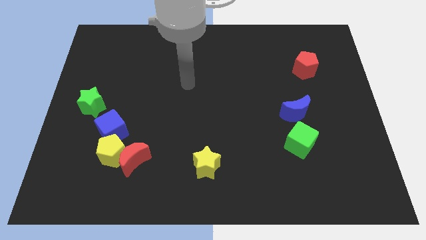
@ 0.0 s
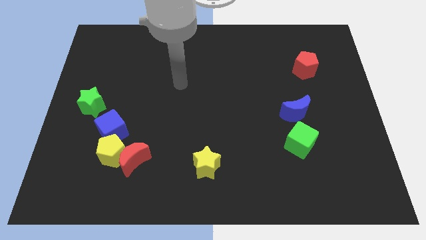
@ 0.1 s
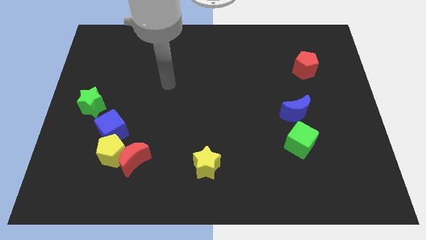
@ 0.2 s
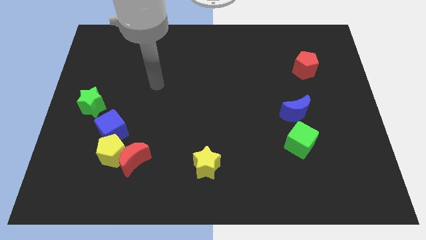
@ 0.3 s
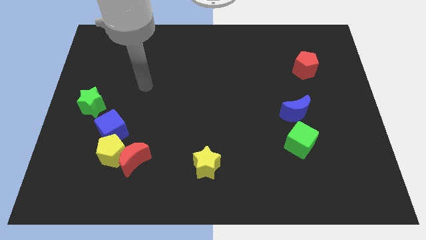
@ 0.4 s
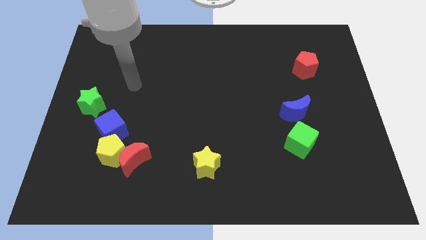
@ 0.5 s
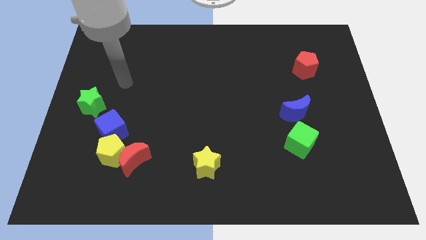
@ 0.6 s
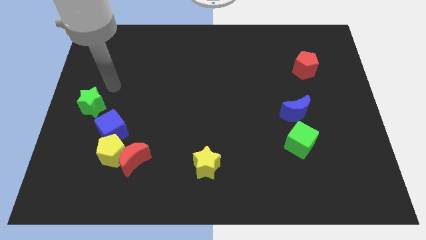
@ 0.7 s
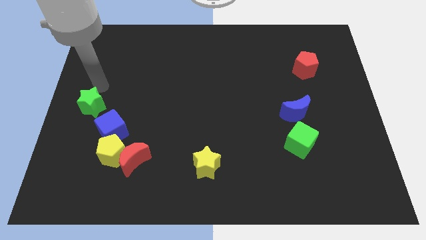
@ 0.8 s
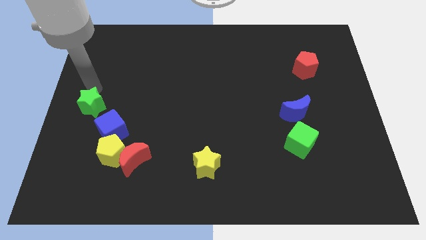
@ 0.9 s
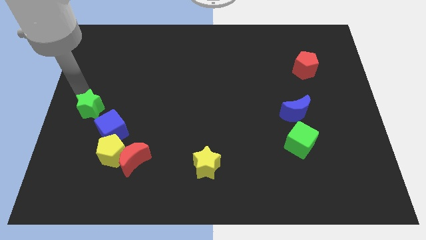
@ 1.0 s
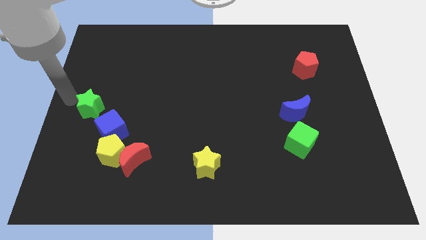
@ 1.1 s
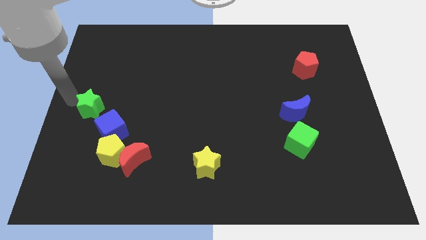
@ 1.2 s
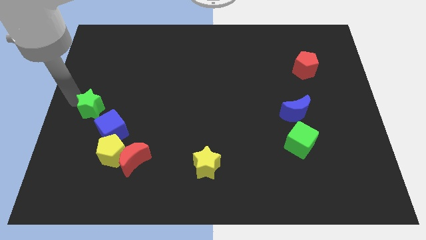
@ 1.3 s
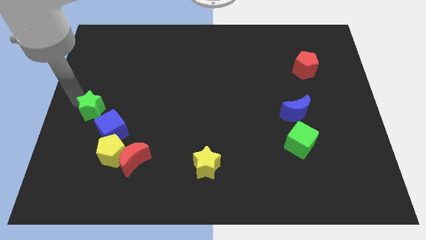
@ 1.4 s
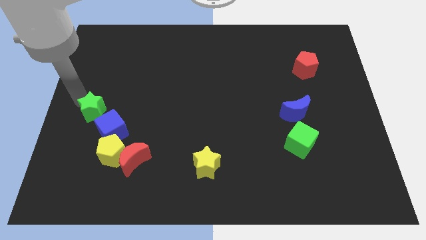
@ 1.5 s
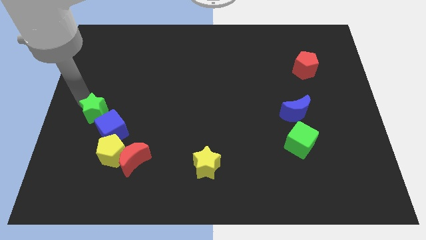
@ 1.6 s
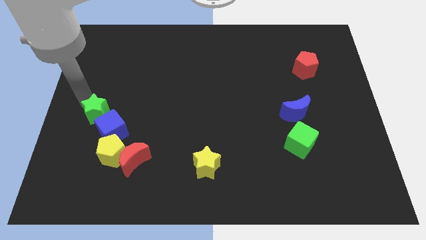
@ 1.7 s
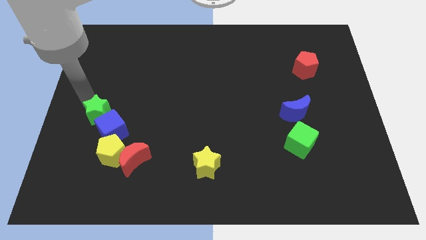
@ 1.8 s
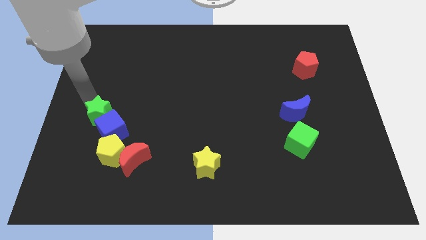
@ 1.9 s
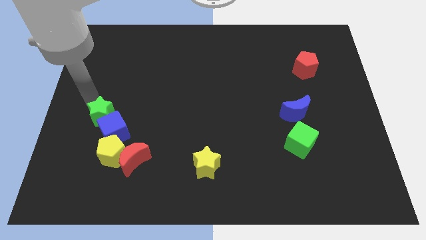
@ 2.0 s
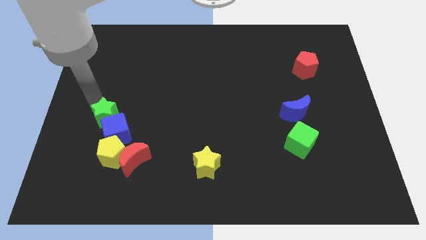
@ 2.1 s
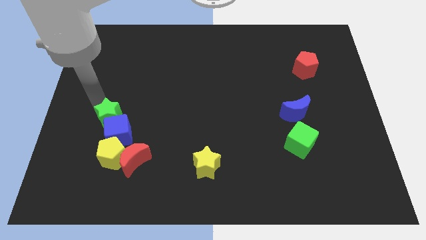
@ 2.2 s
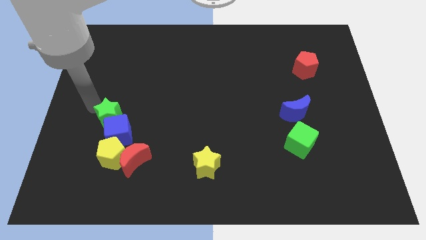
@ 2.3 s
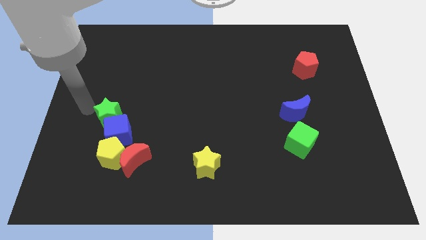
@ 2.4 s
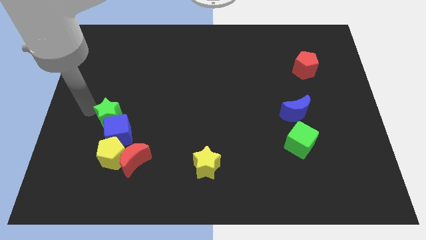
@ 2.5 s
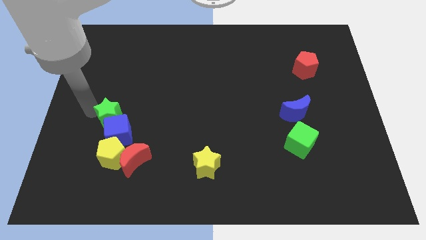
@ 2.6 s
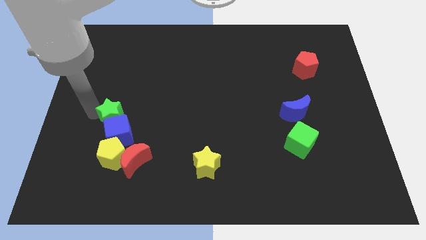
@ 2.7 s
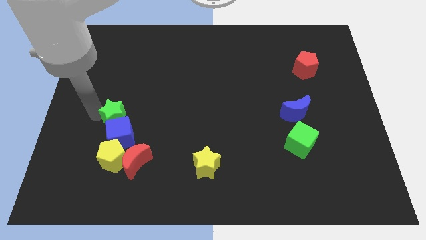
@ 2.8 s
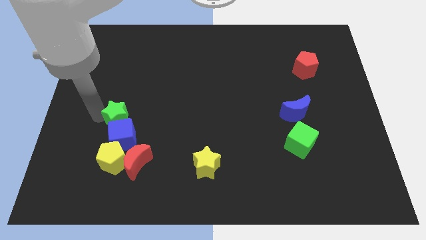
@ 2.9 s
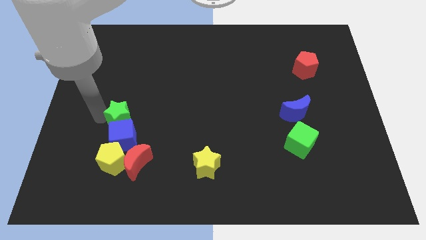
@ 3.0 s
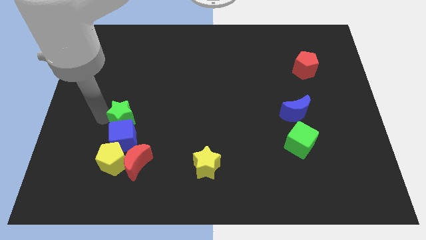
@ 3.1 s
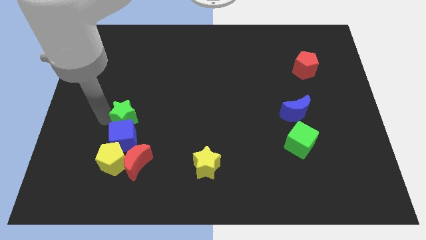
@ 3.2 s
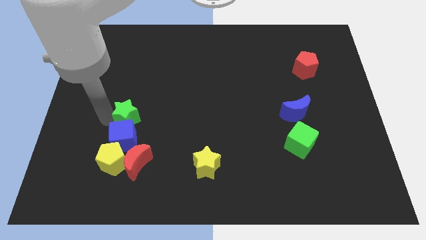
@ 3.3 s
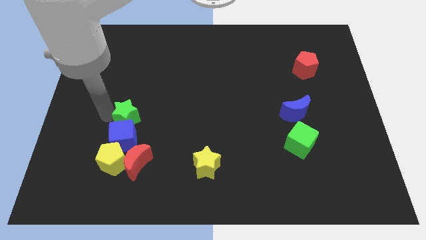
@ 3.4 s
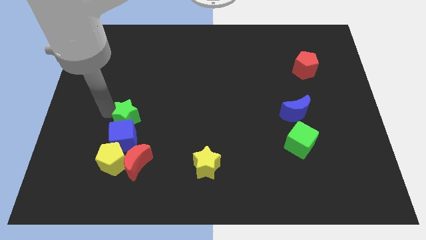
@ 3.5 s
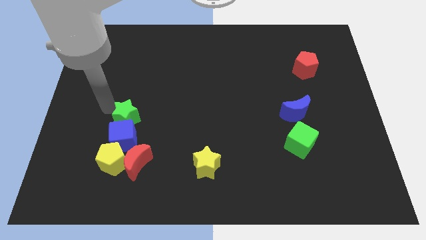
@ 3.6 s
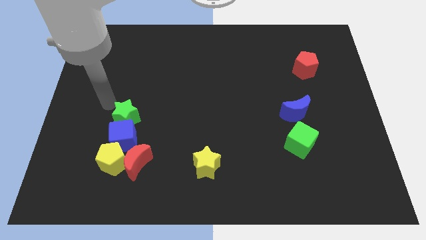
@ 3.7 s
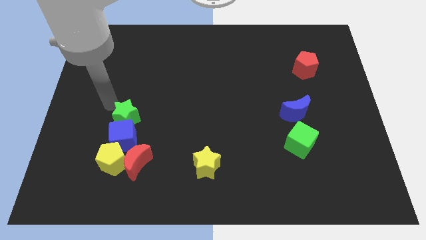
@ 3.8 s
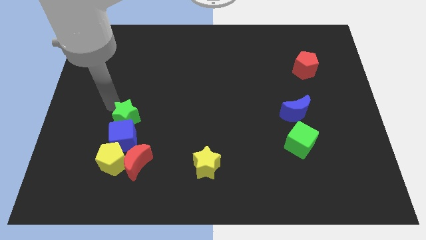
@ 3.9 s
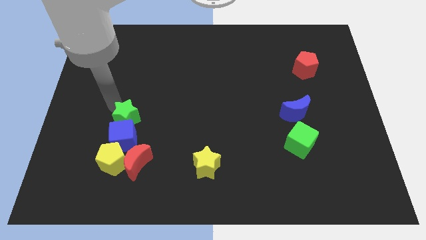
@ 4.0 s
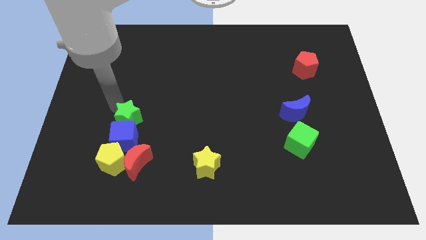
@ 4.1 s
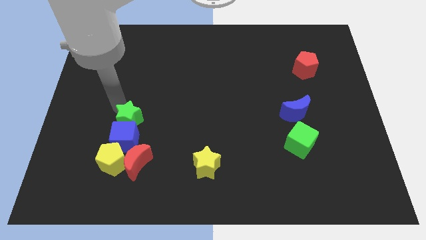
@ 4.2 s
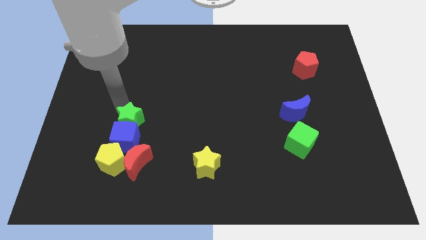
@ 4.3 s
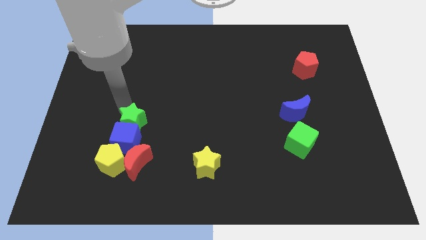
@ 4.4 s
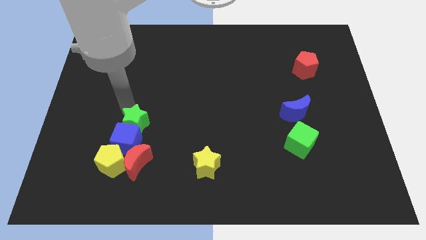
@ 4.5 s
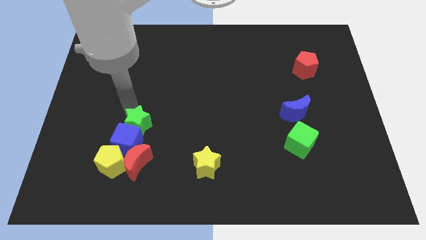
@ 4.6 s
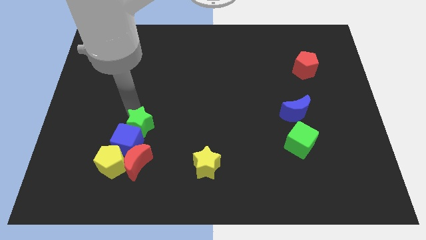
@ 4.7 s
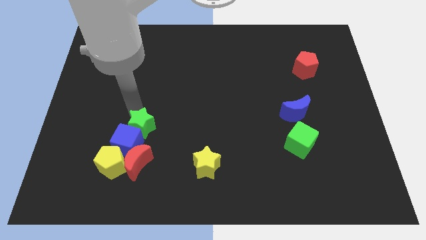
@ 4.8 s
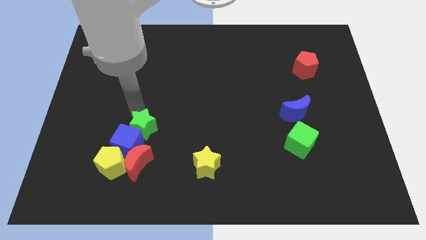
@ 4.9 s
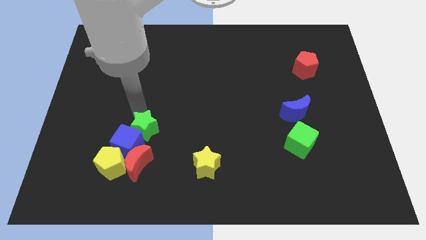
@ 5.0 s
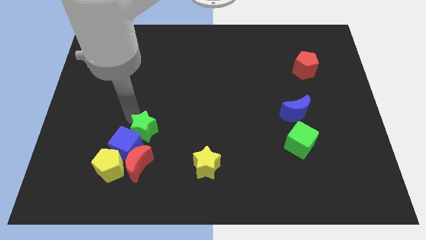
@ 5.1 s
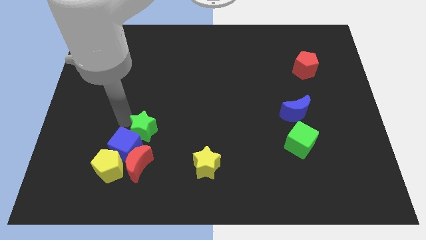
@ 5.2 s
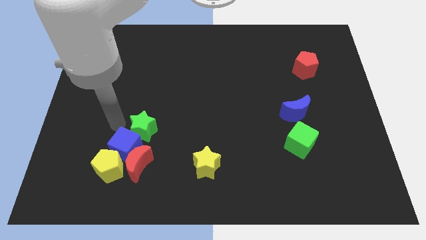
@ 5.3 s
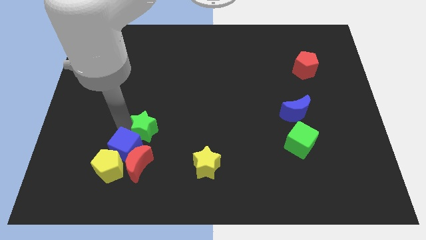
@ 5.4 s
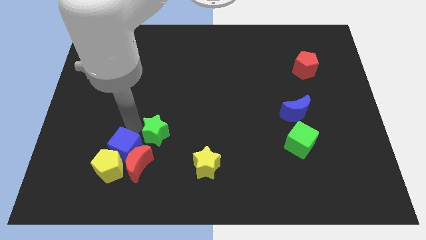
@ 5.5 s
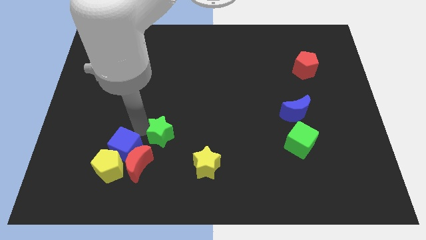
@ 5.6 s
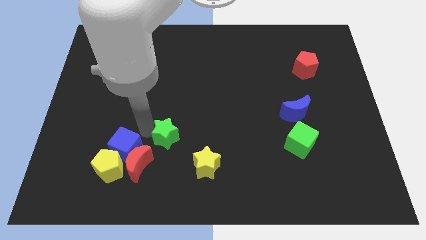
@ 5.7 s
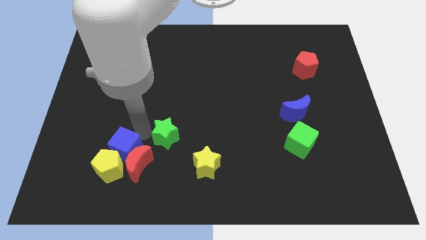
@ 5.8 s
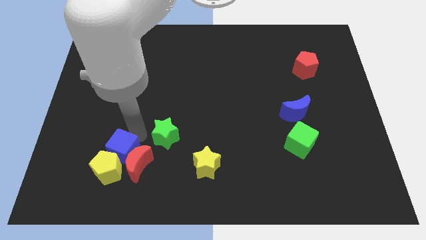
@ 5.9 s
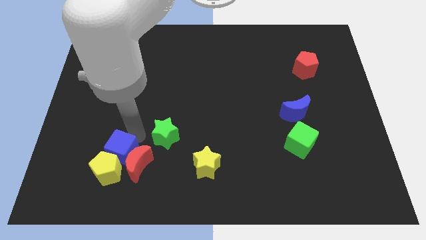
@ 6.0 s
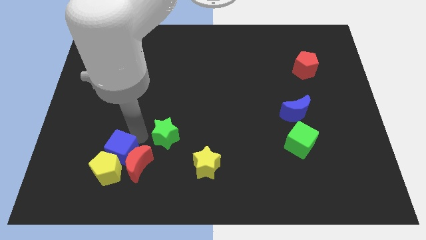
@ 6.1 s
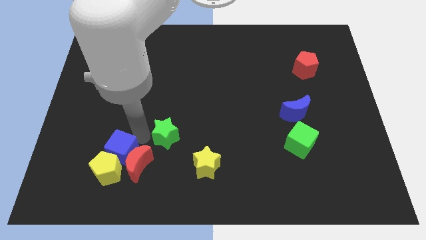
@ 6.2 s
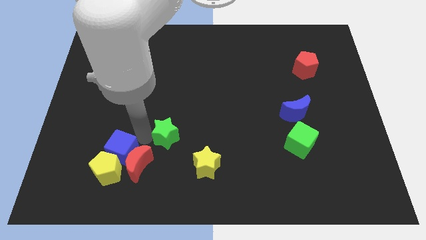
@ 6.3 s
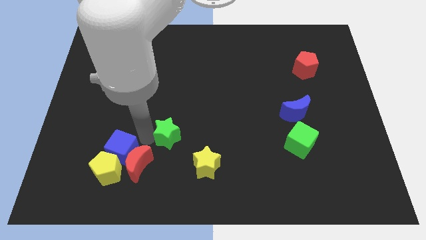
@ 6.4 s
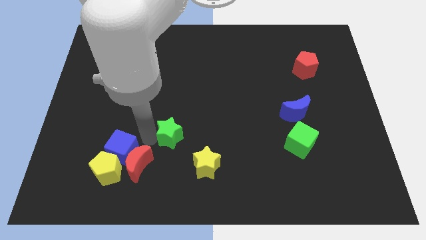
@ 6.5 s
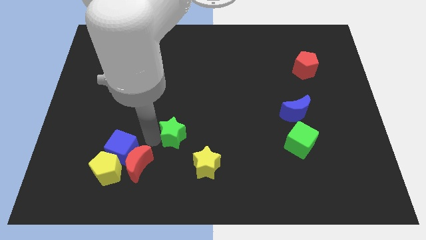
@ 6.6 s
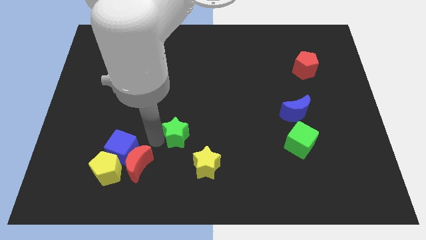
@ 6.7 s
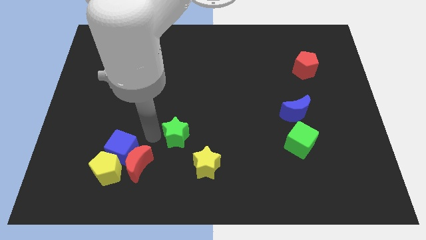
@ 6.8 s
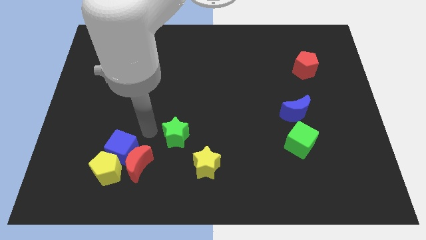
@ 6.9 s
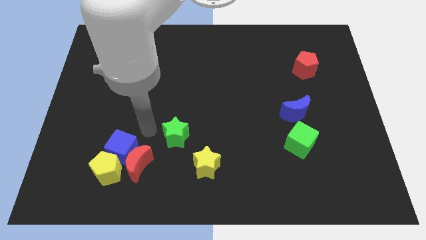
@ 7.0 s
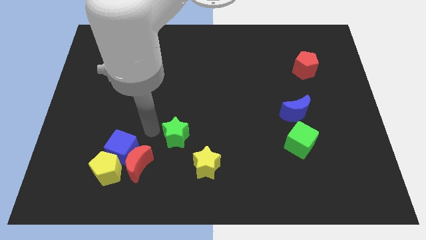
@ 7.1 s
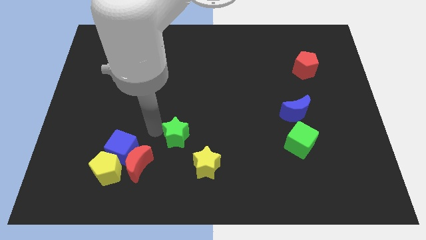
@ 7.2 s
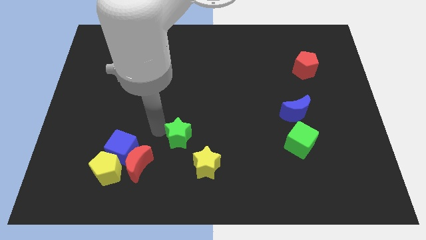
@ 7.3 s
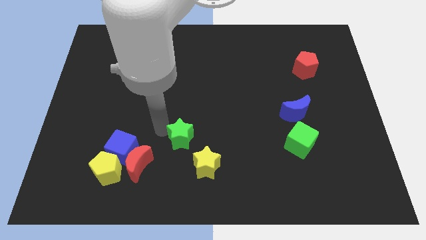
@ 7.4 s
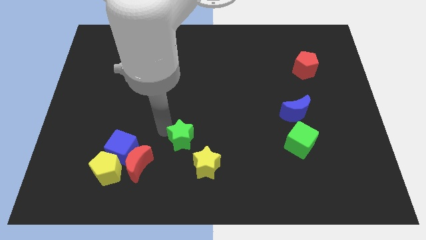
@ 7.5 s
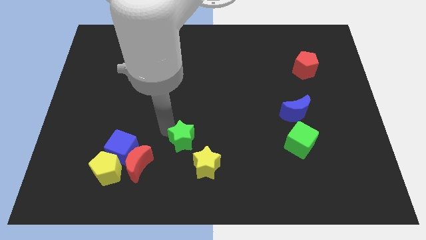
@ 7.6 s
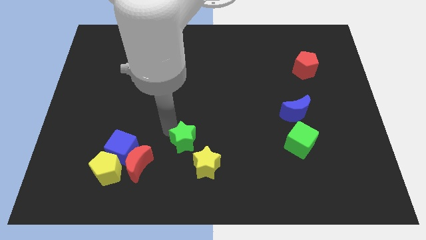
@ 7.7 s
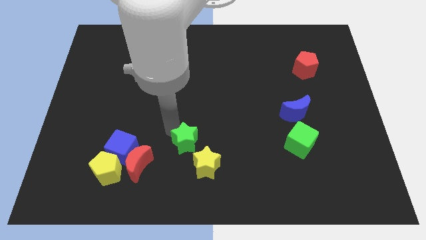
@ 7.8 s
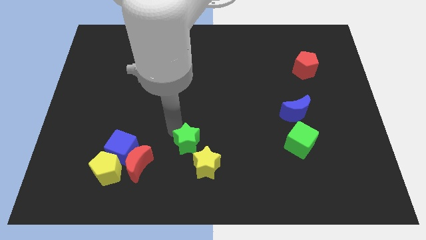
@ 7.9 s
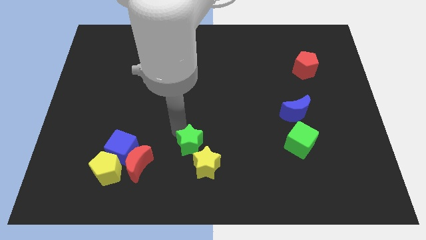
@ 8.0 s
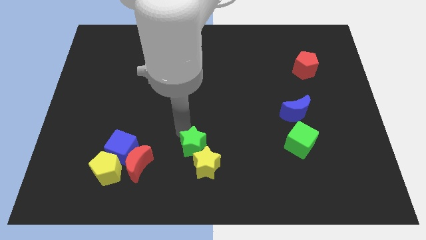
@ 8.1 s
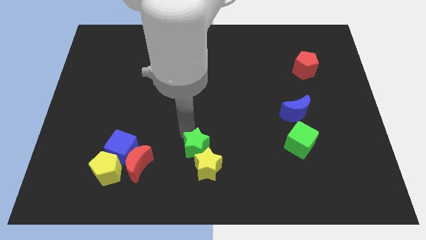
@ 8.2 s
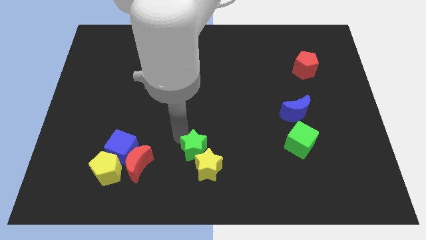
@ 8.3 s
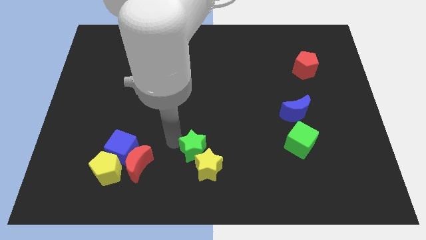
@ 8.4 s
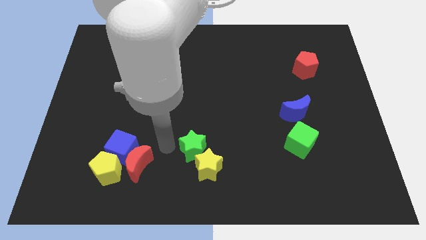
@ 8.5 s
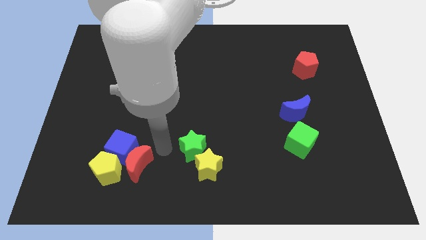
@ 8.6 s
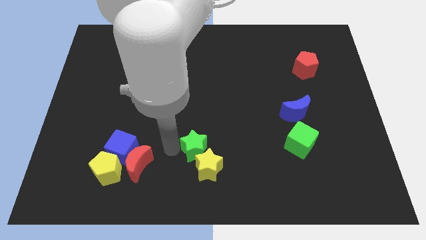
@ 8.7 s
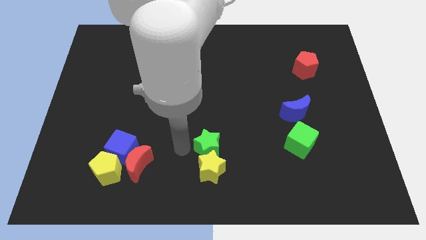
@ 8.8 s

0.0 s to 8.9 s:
move the green star to the top right side of the yellow star
